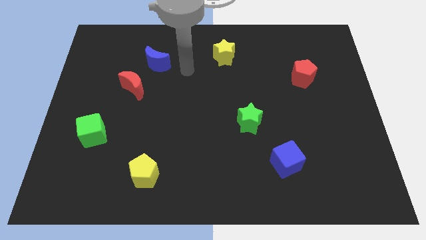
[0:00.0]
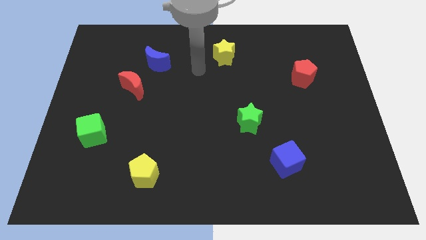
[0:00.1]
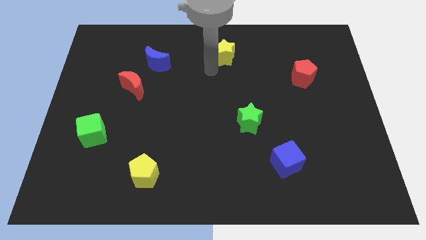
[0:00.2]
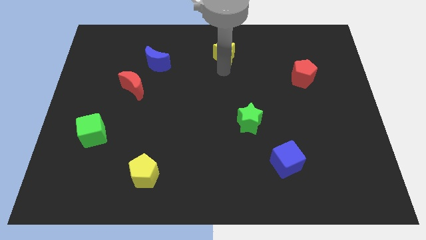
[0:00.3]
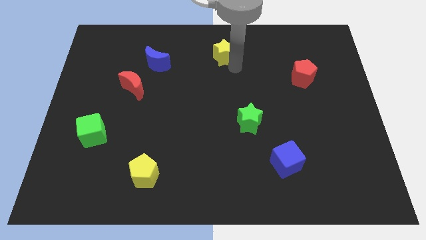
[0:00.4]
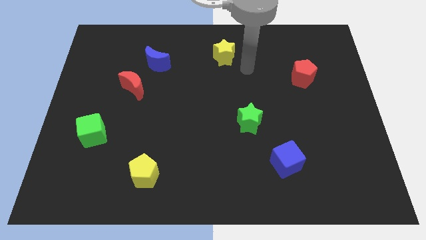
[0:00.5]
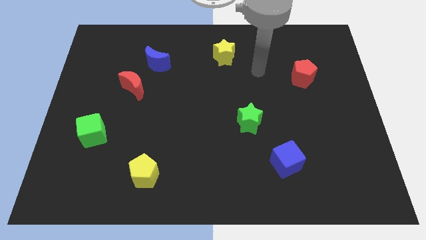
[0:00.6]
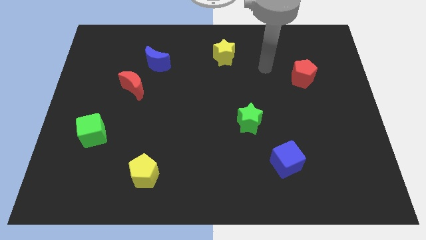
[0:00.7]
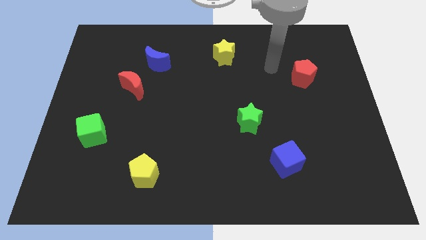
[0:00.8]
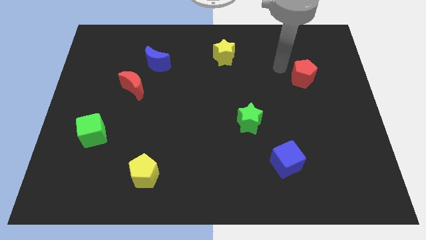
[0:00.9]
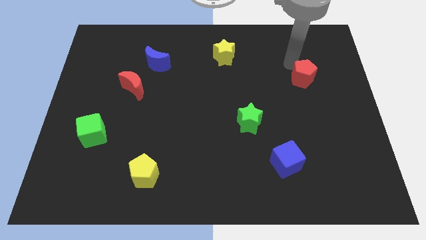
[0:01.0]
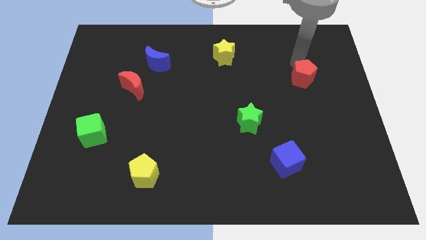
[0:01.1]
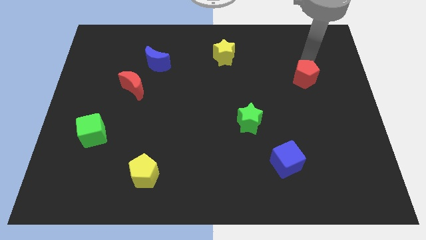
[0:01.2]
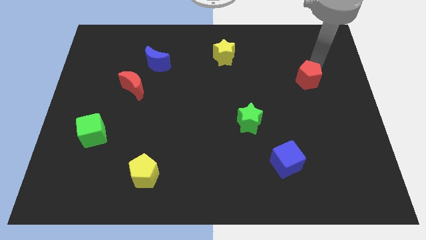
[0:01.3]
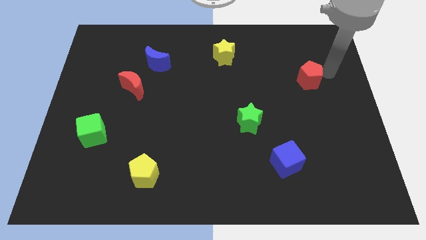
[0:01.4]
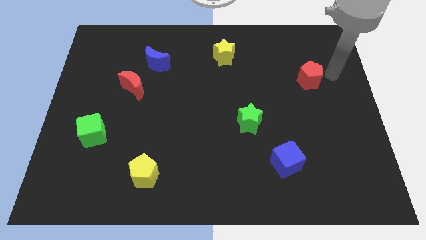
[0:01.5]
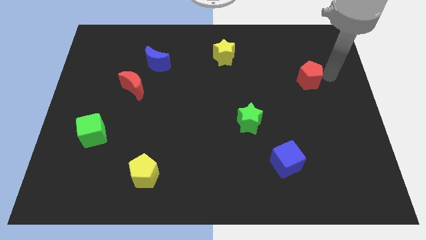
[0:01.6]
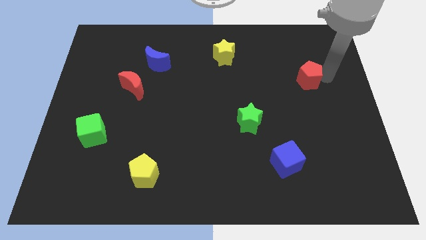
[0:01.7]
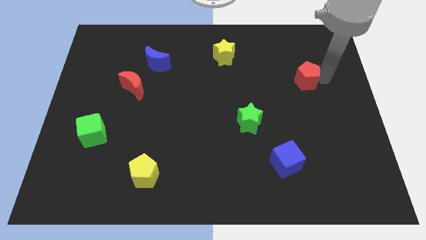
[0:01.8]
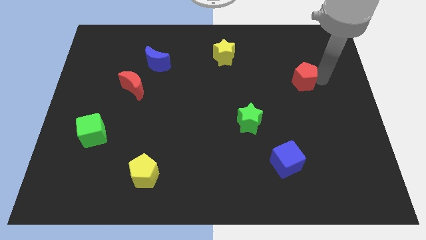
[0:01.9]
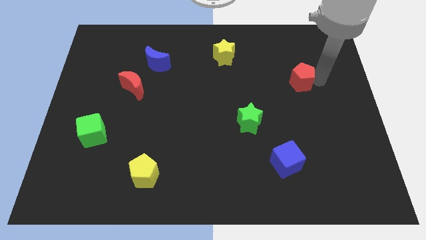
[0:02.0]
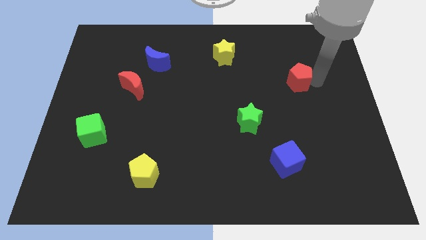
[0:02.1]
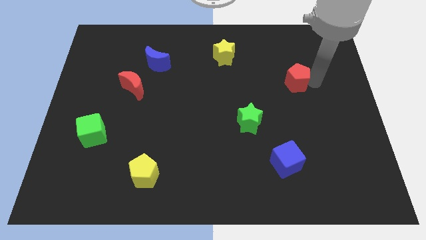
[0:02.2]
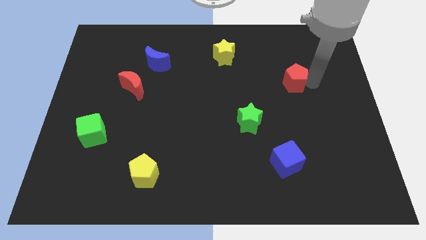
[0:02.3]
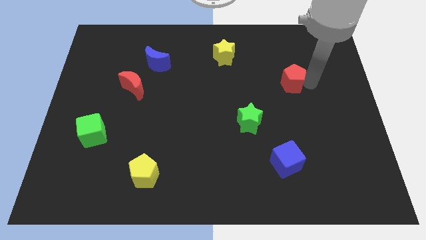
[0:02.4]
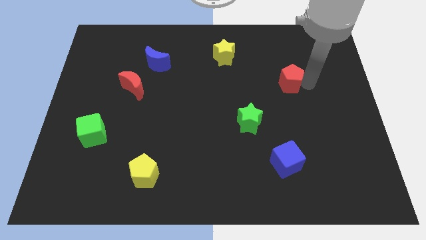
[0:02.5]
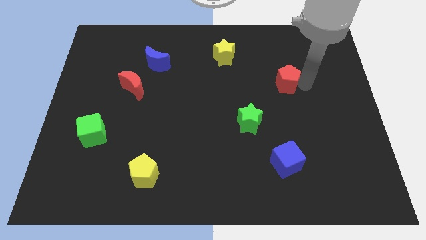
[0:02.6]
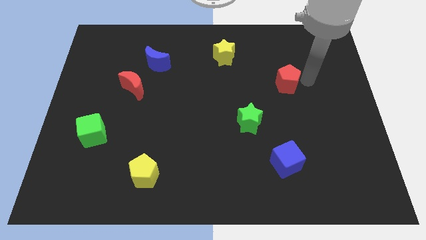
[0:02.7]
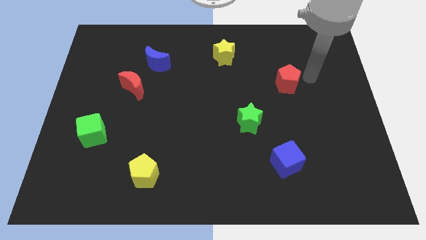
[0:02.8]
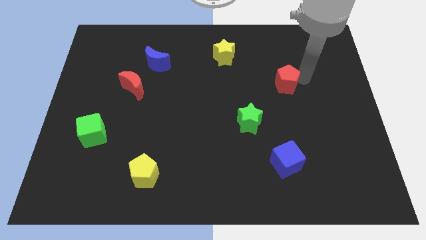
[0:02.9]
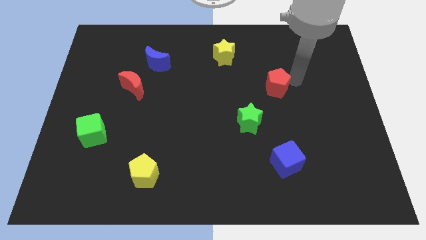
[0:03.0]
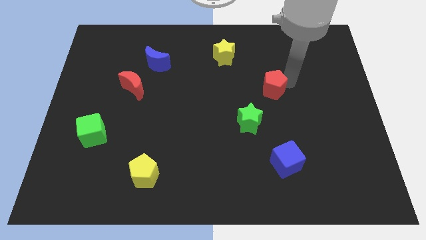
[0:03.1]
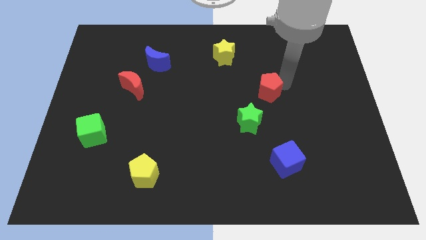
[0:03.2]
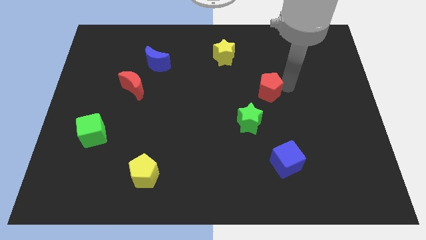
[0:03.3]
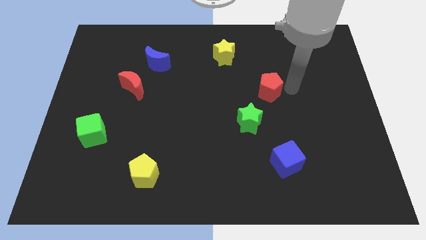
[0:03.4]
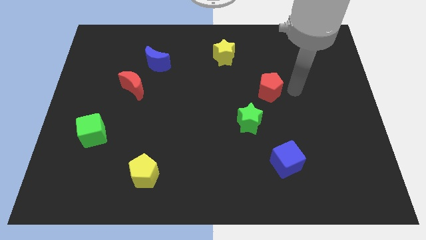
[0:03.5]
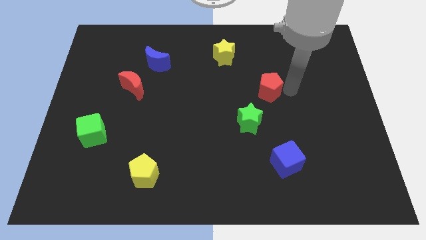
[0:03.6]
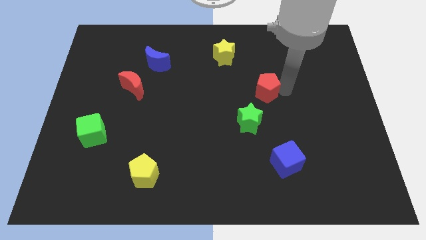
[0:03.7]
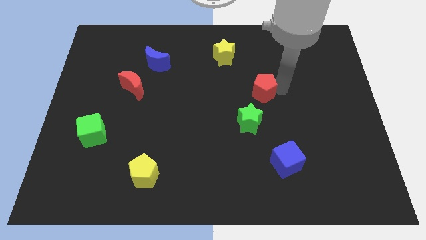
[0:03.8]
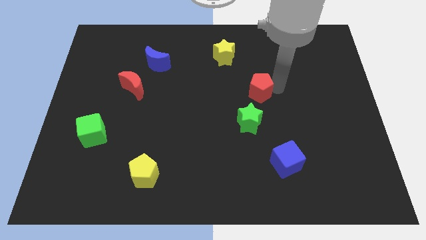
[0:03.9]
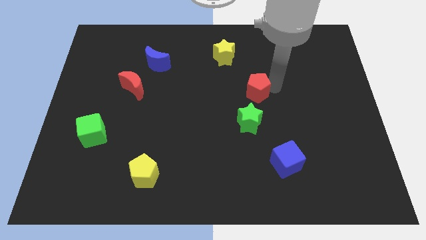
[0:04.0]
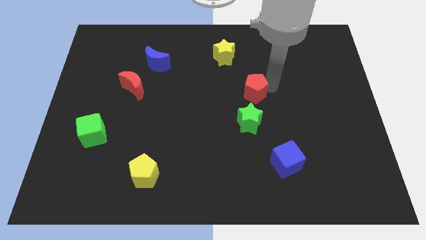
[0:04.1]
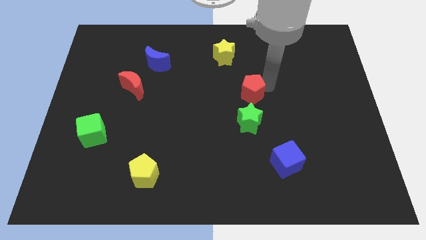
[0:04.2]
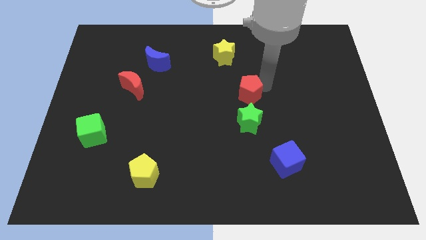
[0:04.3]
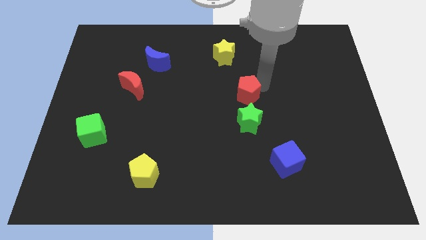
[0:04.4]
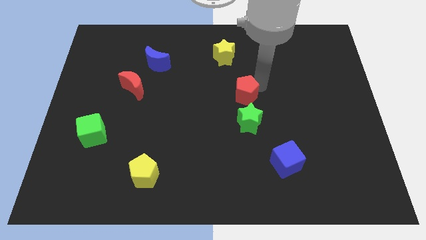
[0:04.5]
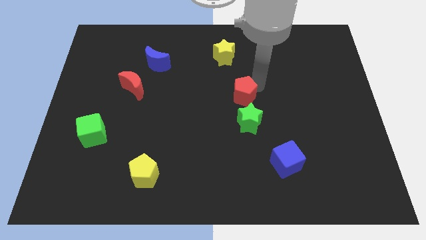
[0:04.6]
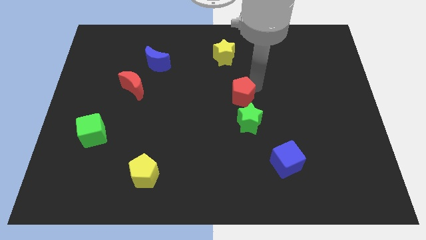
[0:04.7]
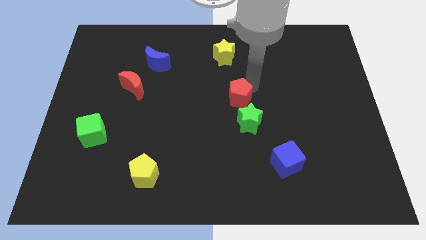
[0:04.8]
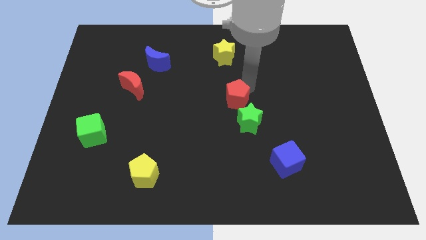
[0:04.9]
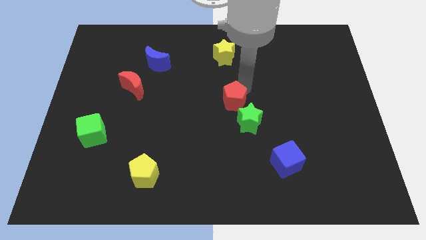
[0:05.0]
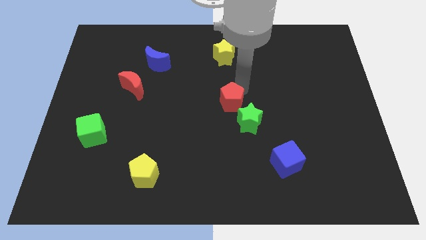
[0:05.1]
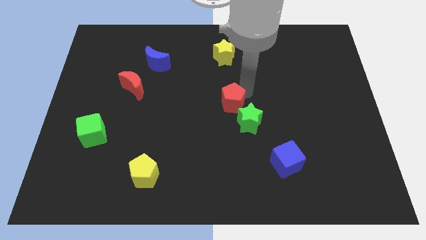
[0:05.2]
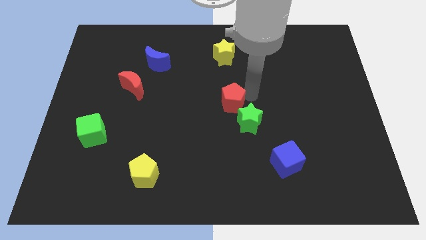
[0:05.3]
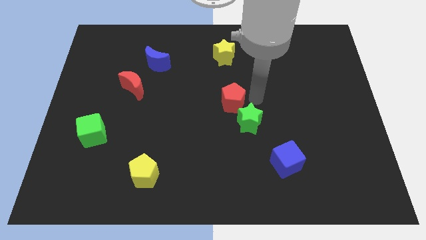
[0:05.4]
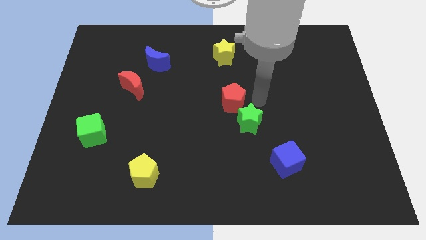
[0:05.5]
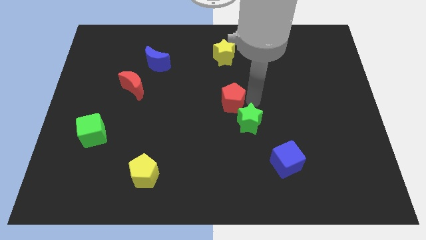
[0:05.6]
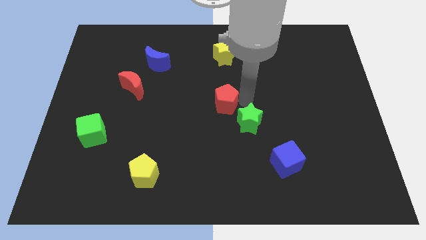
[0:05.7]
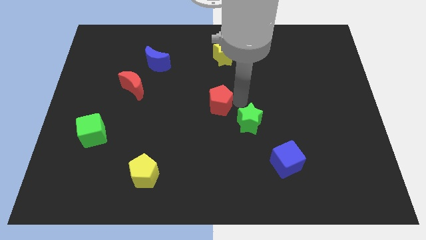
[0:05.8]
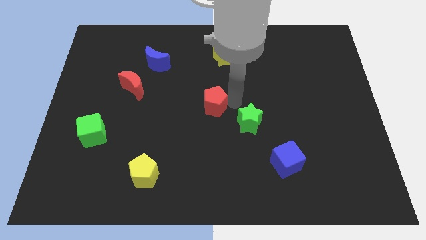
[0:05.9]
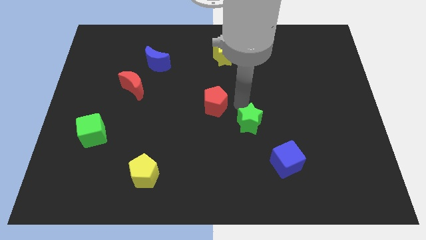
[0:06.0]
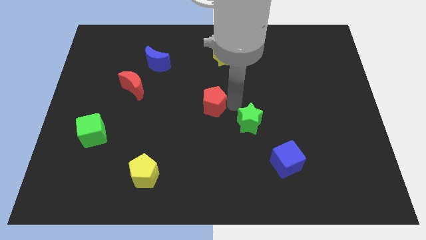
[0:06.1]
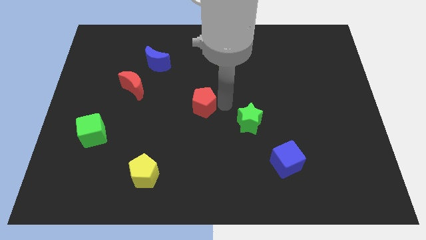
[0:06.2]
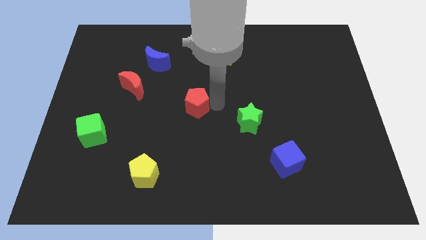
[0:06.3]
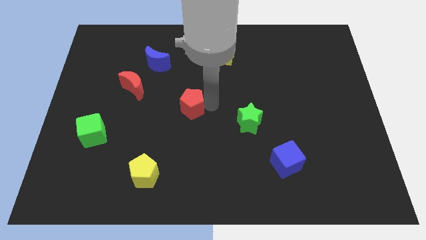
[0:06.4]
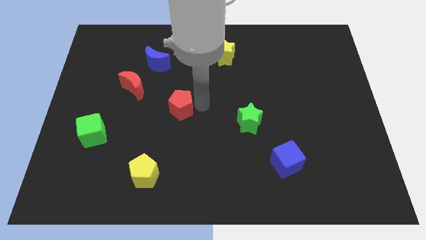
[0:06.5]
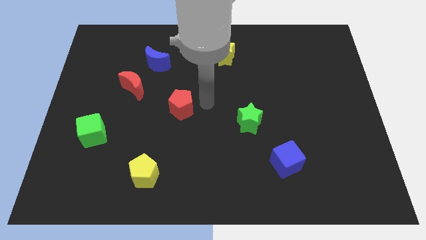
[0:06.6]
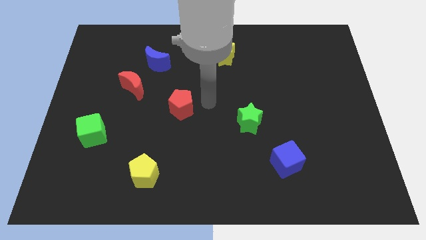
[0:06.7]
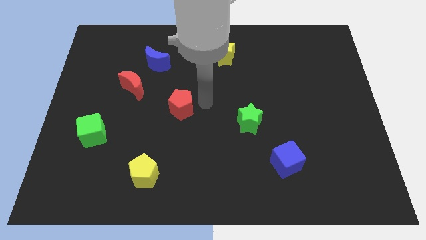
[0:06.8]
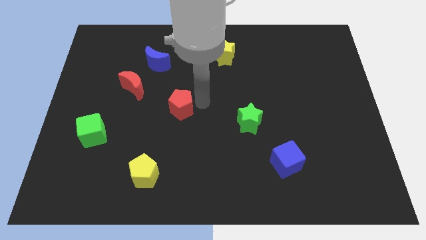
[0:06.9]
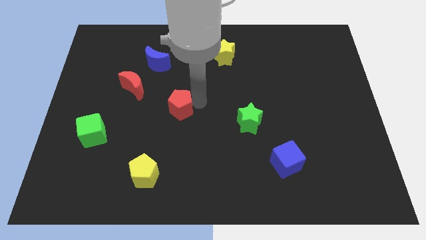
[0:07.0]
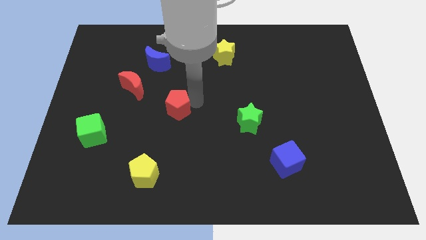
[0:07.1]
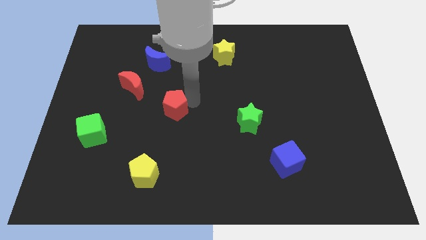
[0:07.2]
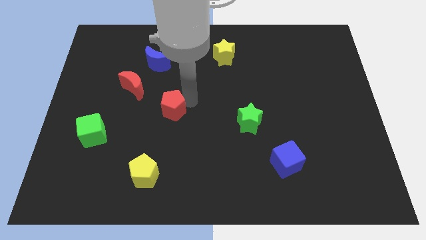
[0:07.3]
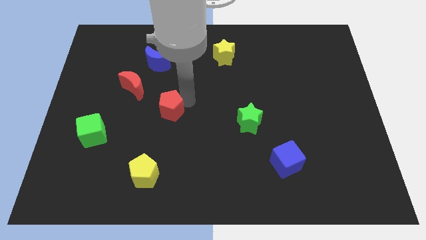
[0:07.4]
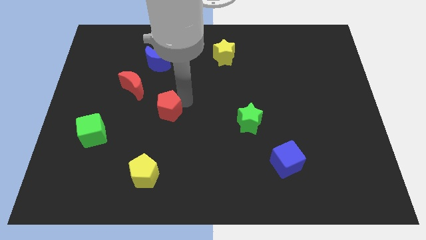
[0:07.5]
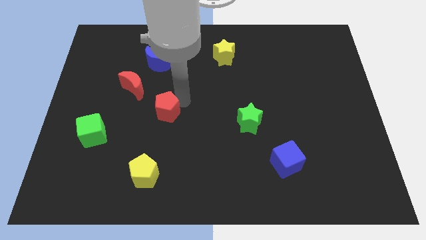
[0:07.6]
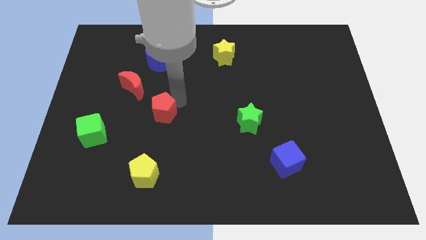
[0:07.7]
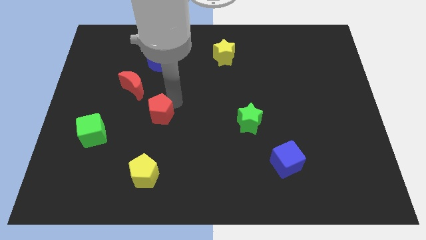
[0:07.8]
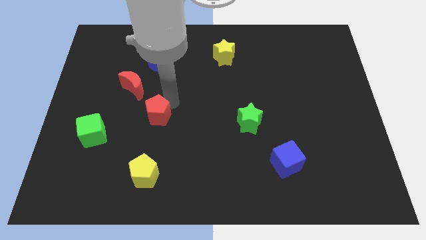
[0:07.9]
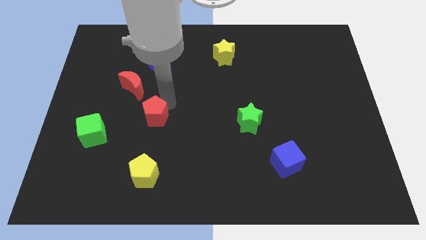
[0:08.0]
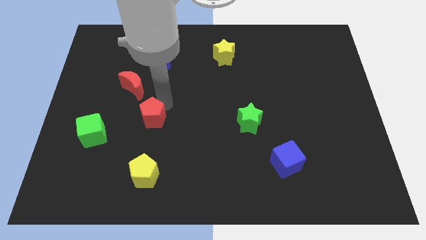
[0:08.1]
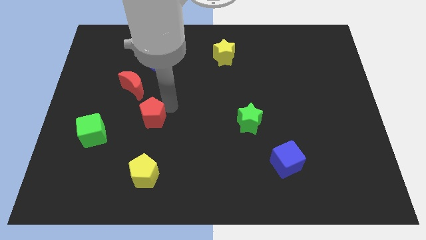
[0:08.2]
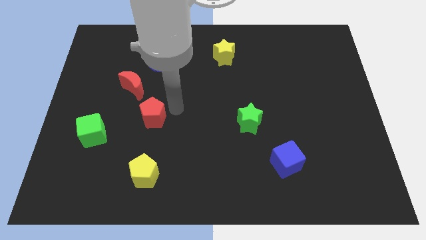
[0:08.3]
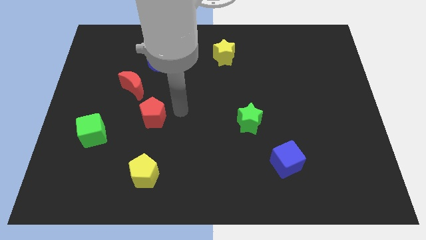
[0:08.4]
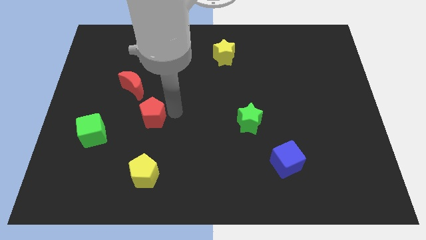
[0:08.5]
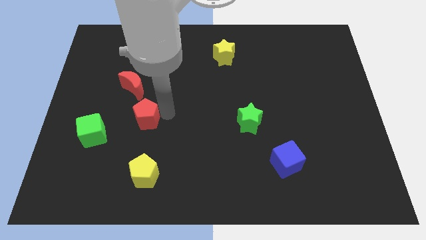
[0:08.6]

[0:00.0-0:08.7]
put the red pentagon below the red moon
